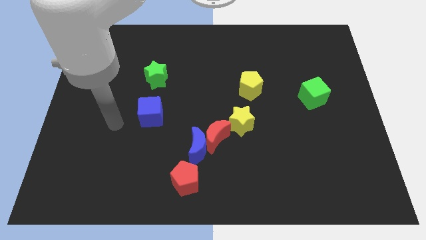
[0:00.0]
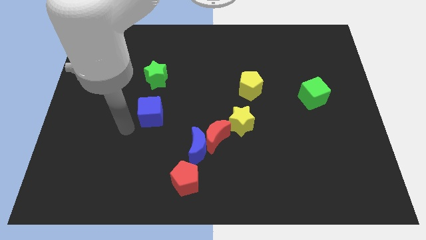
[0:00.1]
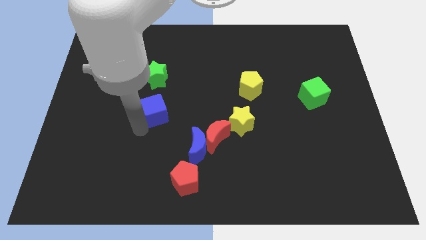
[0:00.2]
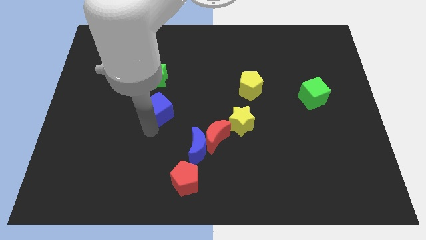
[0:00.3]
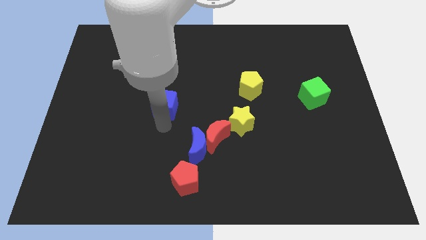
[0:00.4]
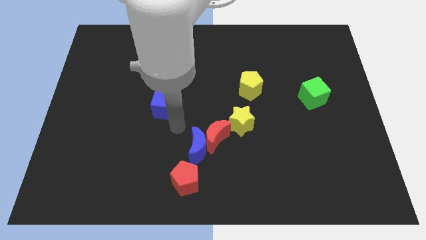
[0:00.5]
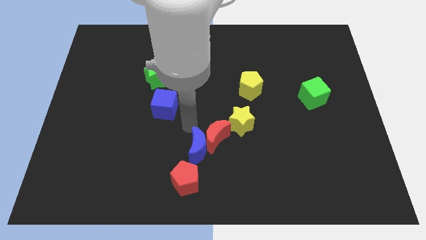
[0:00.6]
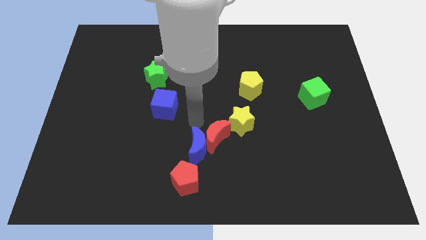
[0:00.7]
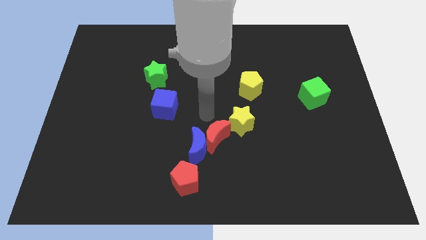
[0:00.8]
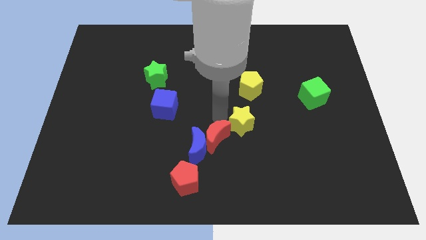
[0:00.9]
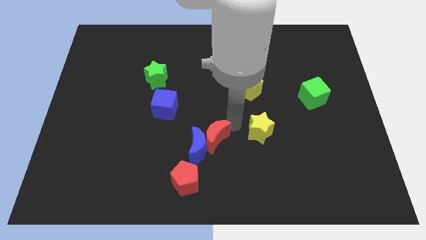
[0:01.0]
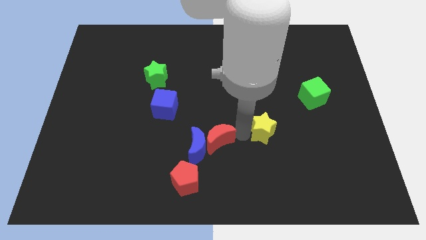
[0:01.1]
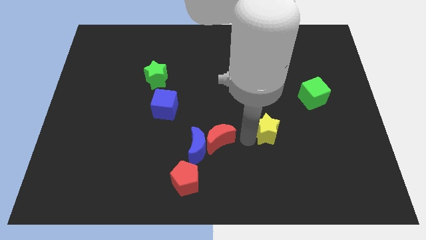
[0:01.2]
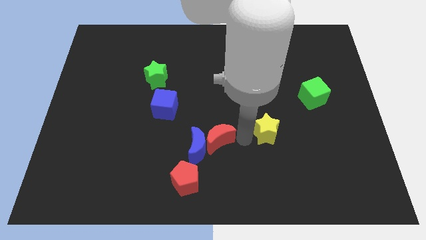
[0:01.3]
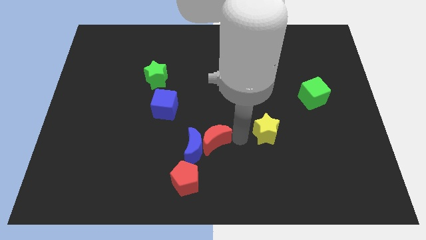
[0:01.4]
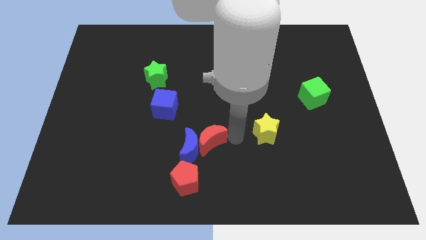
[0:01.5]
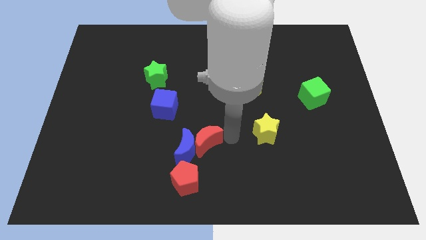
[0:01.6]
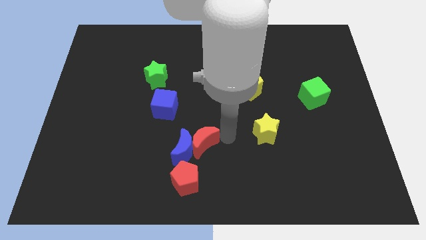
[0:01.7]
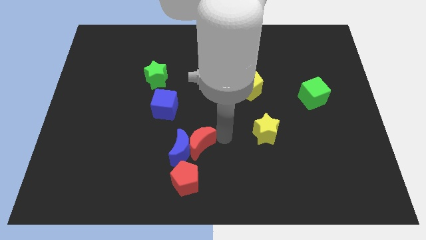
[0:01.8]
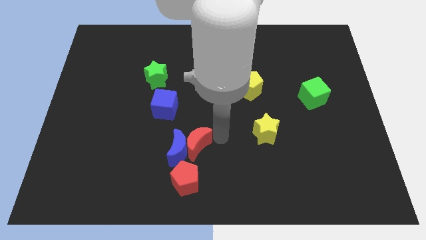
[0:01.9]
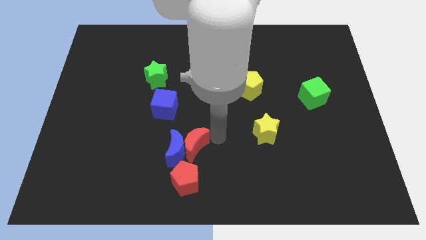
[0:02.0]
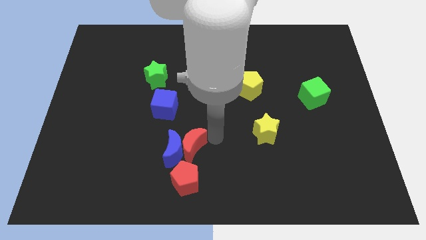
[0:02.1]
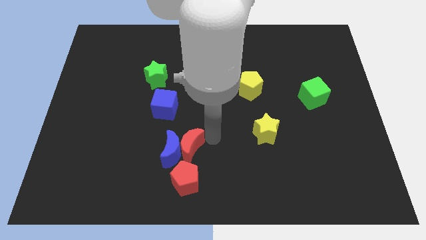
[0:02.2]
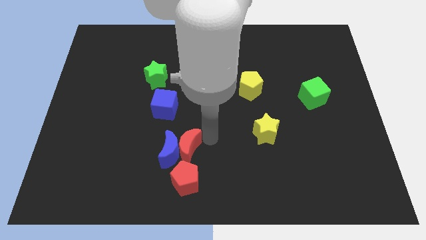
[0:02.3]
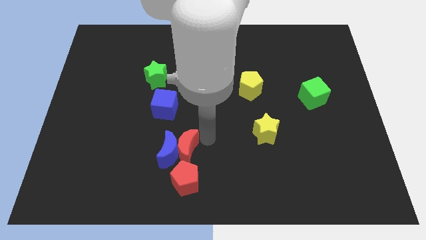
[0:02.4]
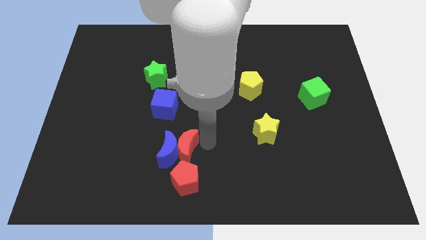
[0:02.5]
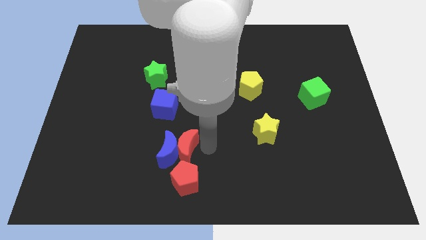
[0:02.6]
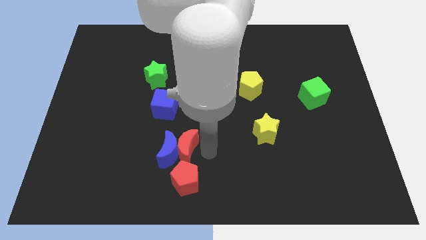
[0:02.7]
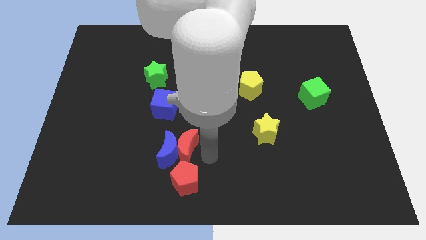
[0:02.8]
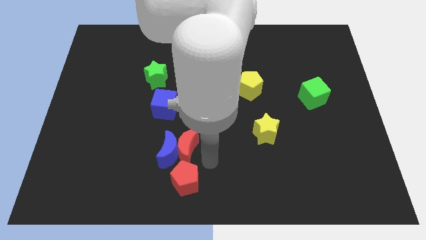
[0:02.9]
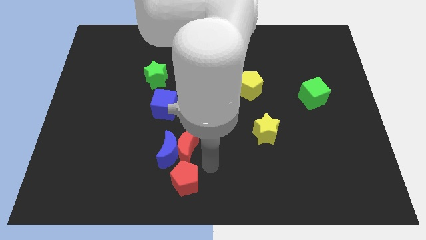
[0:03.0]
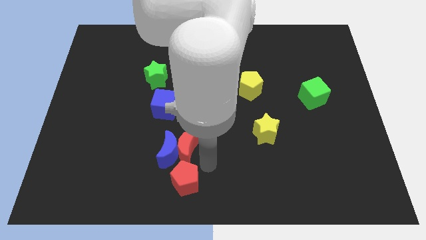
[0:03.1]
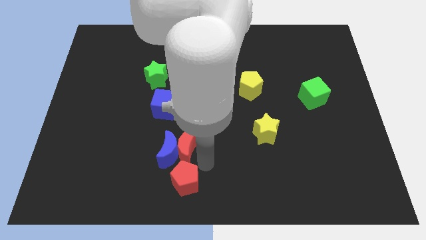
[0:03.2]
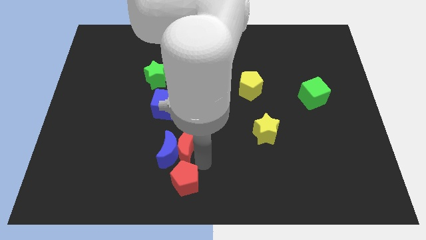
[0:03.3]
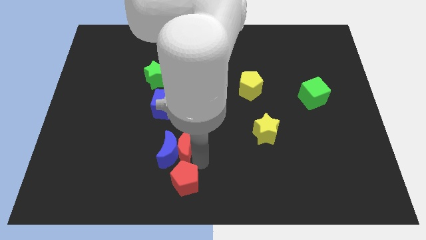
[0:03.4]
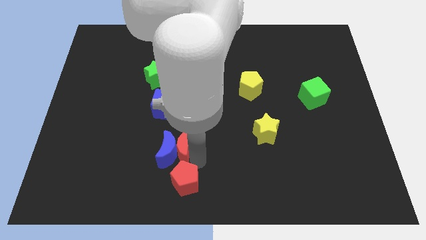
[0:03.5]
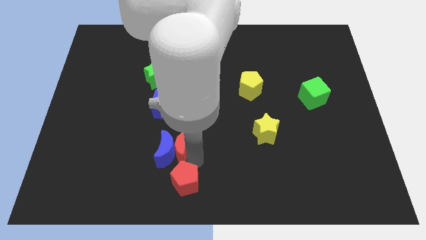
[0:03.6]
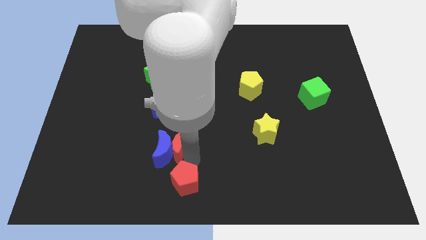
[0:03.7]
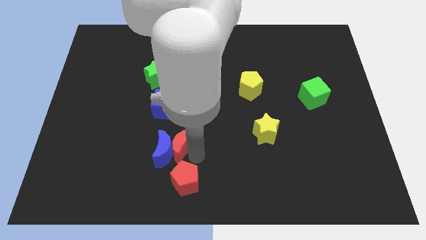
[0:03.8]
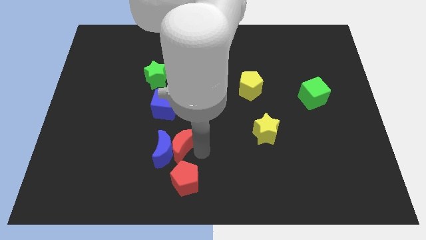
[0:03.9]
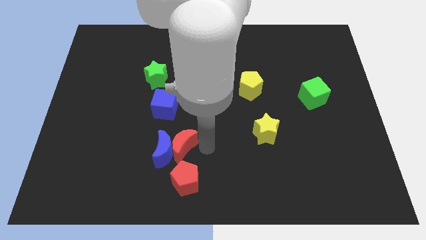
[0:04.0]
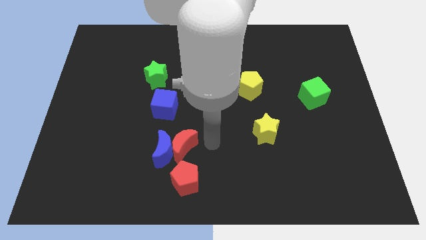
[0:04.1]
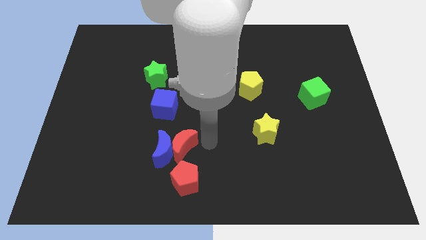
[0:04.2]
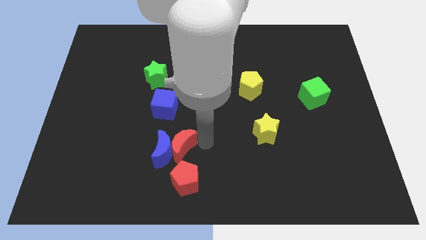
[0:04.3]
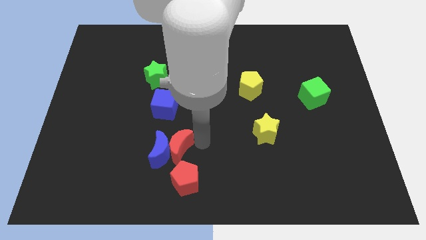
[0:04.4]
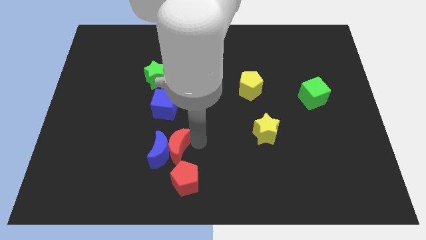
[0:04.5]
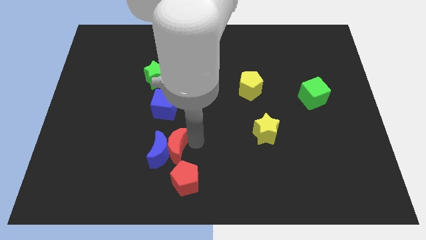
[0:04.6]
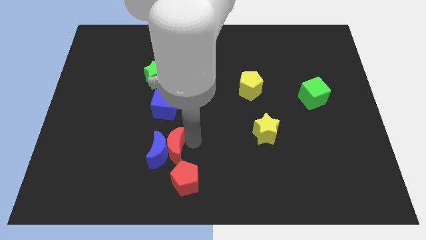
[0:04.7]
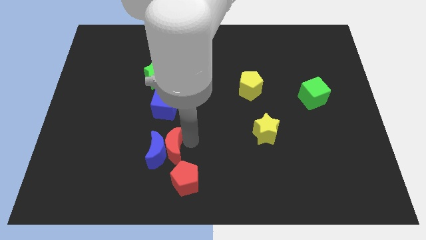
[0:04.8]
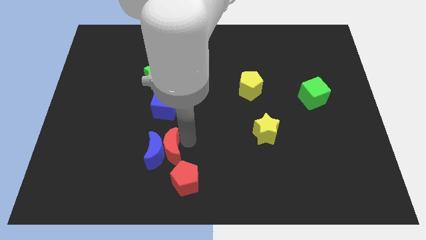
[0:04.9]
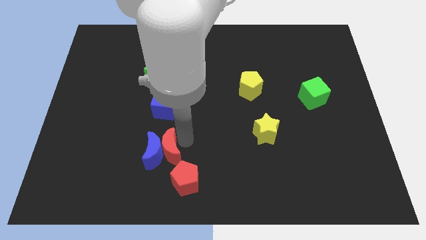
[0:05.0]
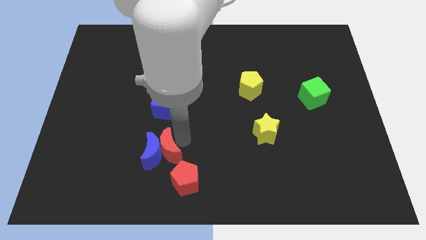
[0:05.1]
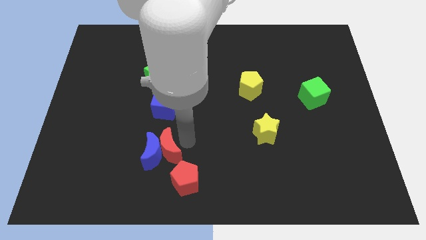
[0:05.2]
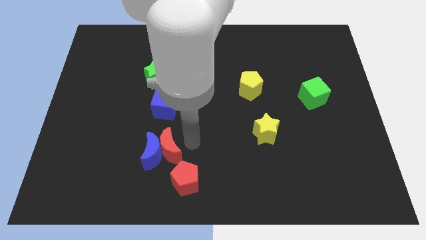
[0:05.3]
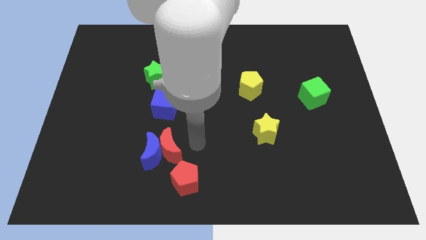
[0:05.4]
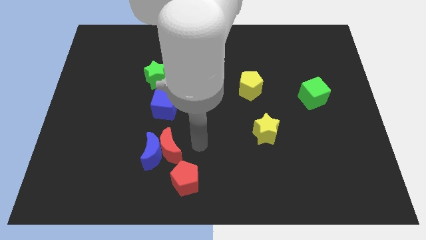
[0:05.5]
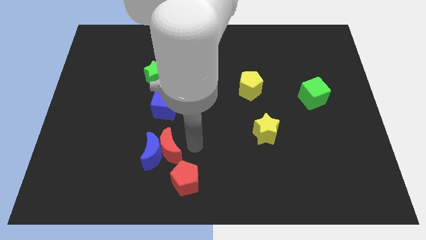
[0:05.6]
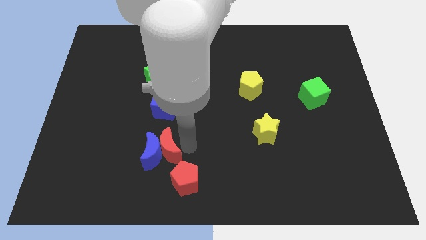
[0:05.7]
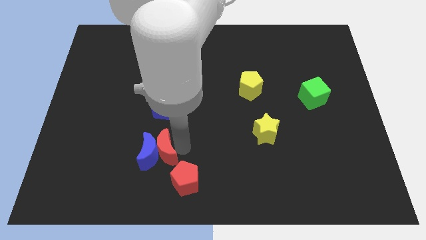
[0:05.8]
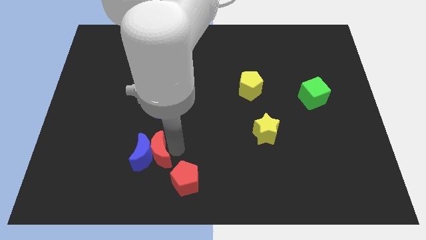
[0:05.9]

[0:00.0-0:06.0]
move the red moon away from the blue moon and yellow star

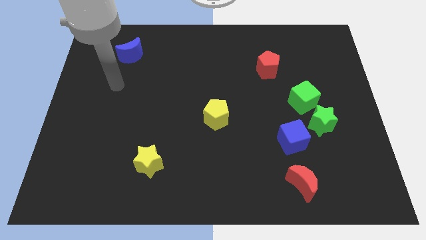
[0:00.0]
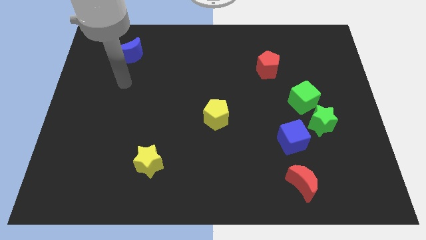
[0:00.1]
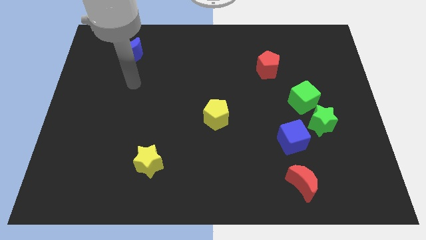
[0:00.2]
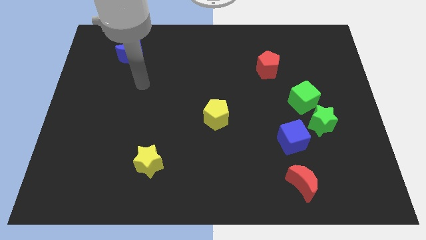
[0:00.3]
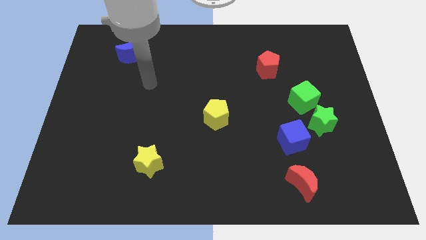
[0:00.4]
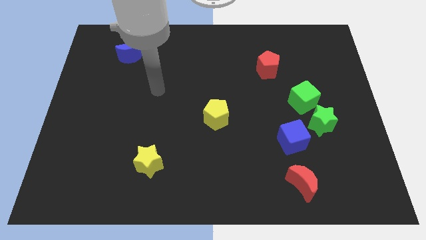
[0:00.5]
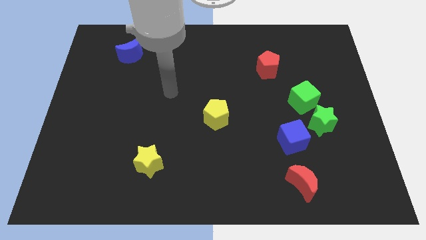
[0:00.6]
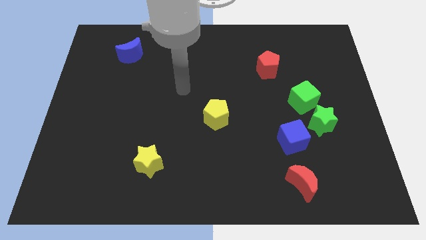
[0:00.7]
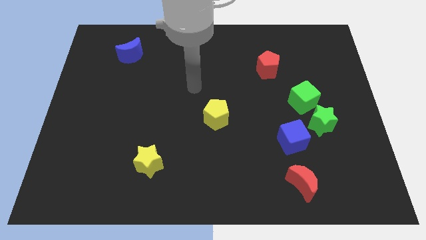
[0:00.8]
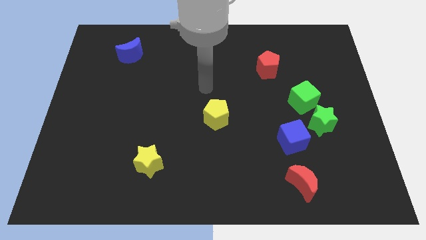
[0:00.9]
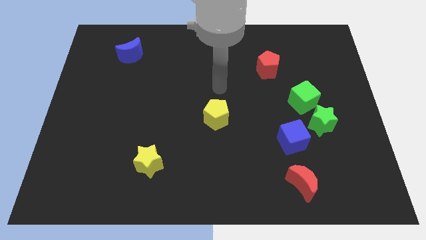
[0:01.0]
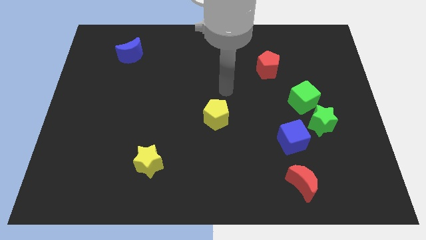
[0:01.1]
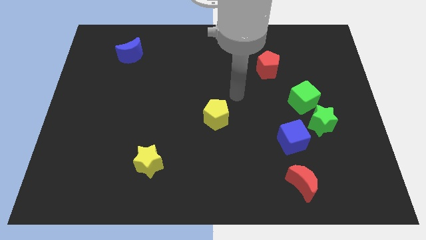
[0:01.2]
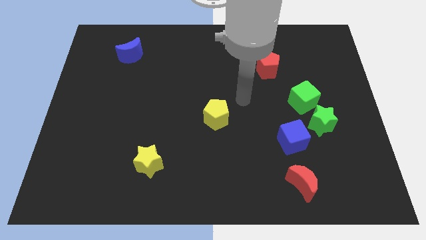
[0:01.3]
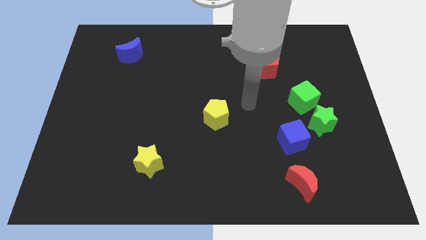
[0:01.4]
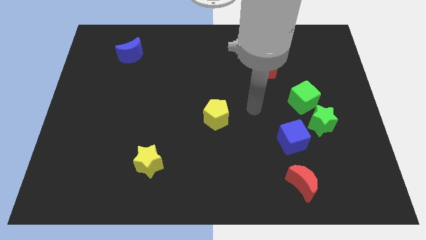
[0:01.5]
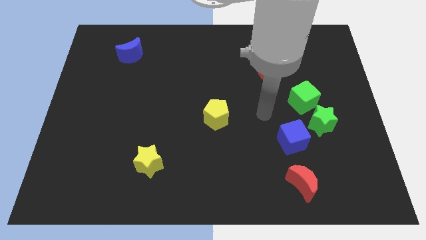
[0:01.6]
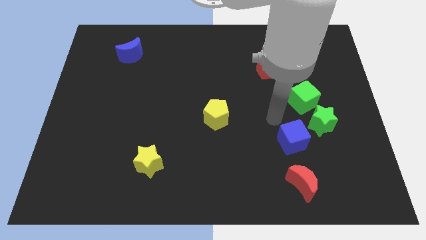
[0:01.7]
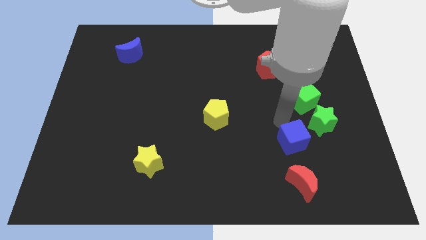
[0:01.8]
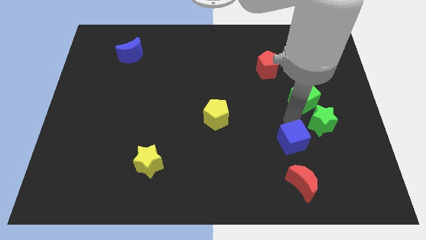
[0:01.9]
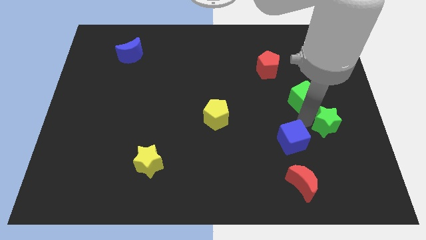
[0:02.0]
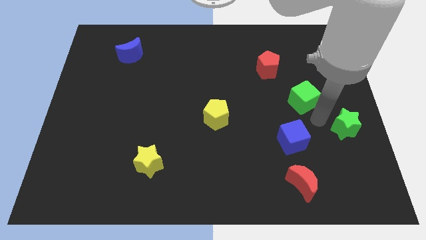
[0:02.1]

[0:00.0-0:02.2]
separate the green cube from the green star

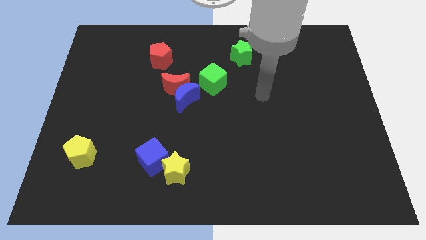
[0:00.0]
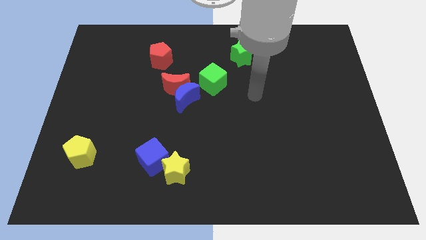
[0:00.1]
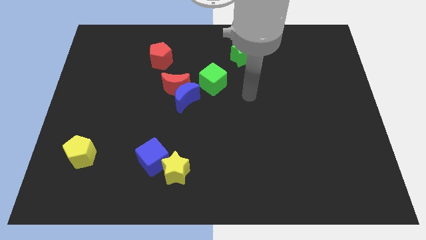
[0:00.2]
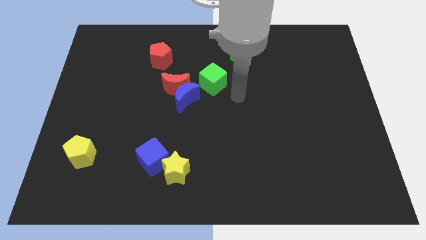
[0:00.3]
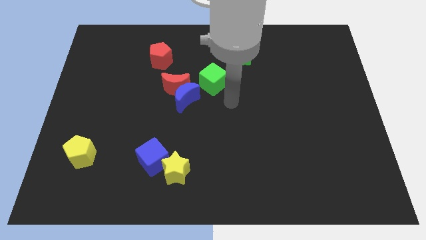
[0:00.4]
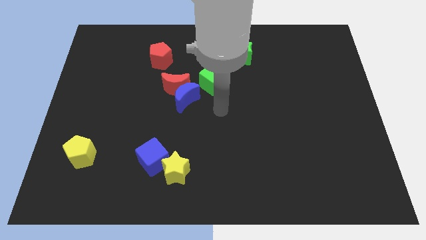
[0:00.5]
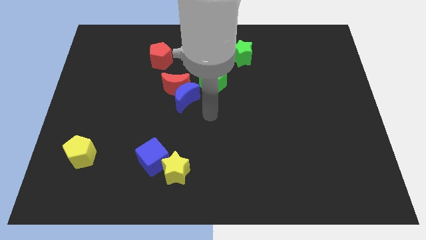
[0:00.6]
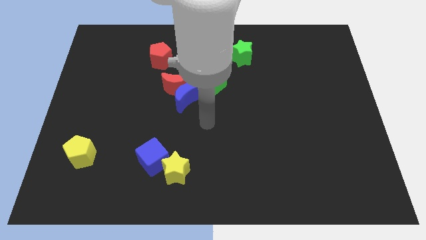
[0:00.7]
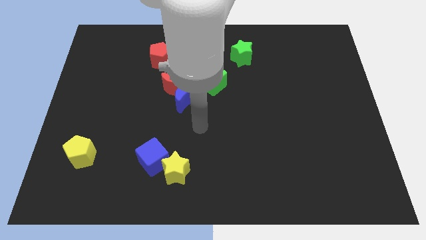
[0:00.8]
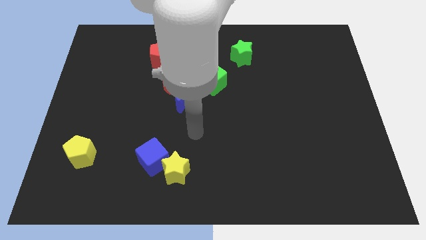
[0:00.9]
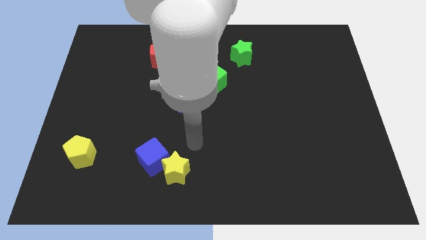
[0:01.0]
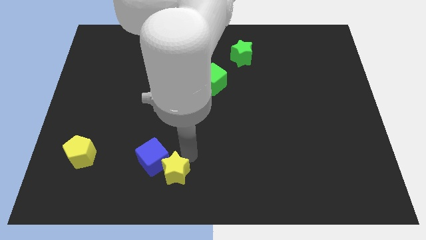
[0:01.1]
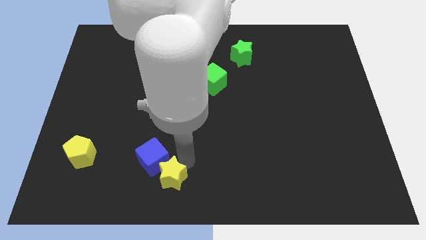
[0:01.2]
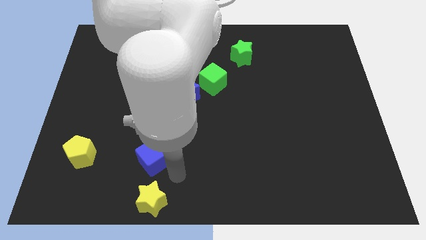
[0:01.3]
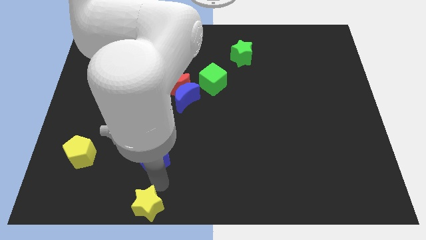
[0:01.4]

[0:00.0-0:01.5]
pull the blue cube apart from the yellow star
